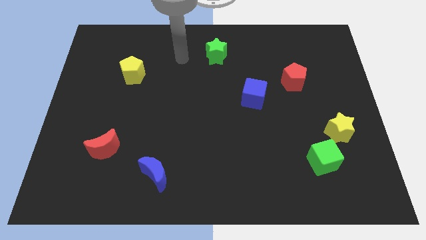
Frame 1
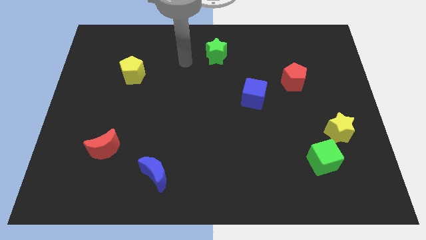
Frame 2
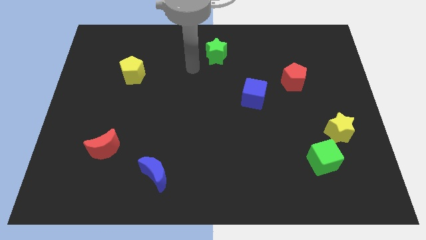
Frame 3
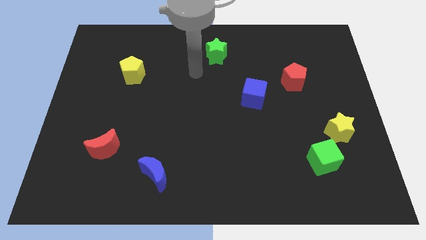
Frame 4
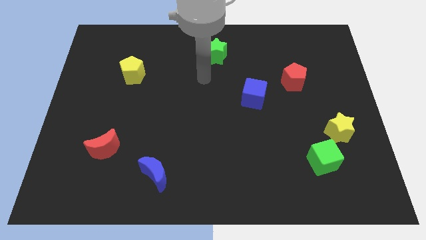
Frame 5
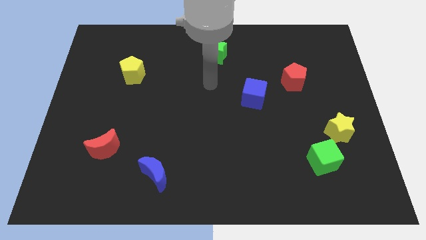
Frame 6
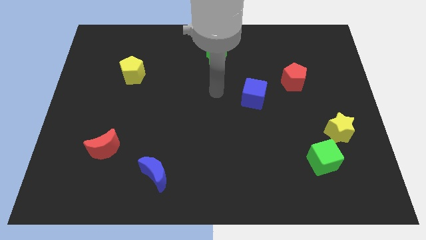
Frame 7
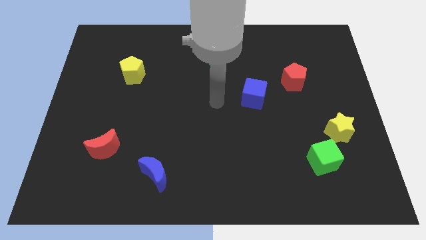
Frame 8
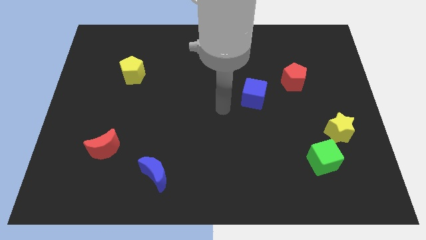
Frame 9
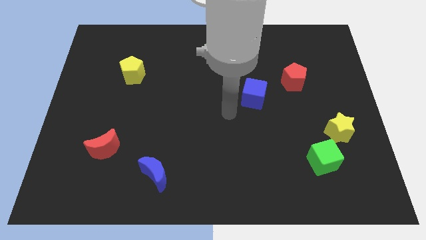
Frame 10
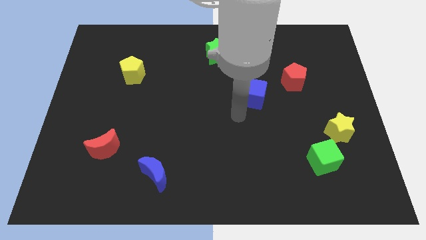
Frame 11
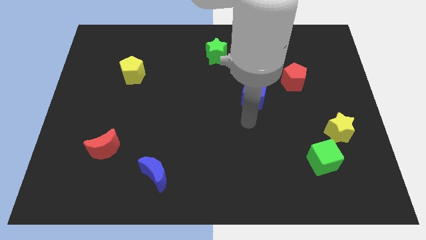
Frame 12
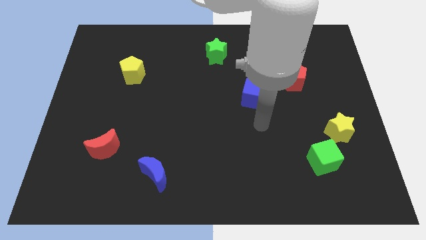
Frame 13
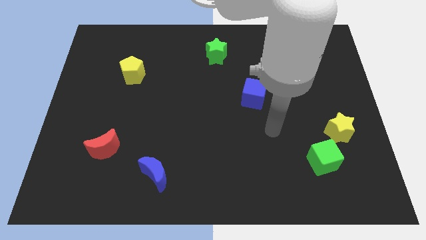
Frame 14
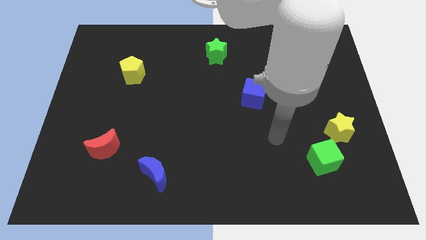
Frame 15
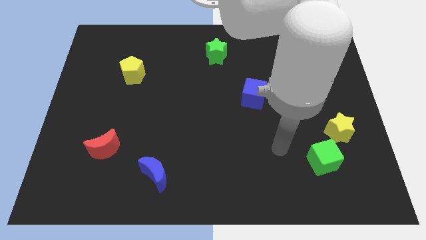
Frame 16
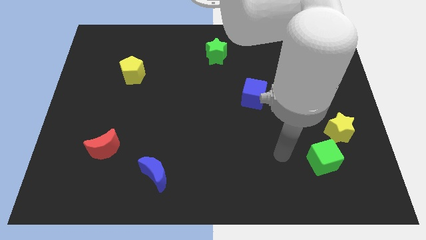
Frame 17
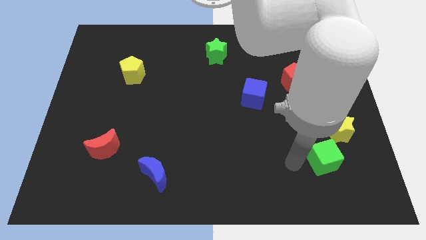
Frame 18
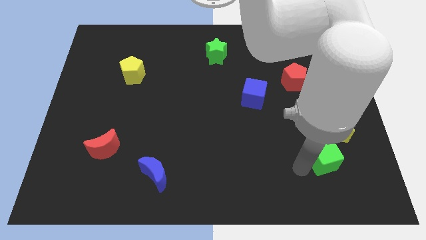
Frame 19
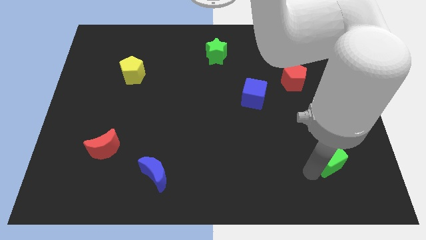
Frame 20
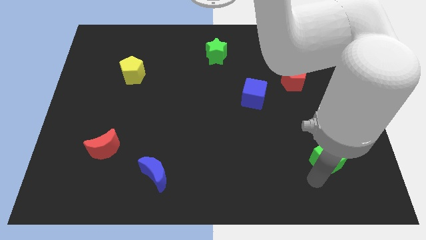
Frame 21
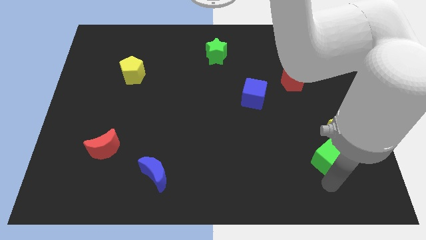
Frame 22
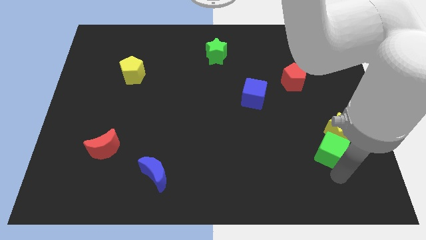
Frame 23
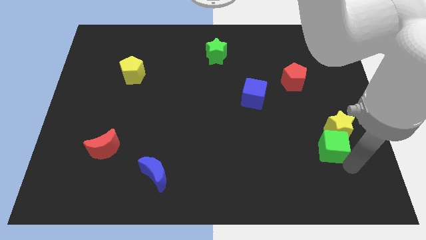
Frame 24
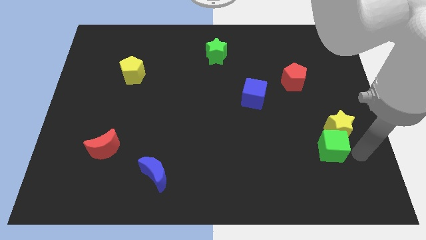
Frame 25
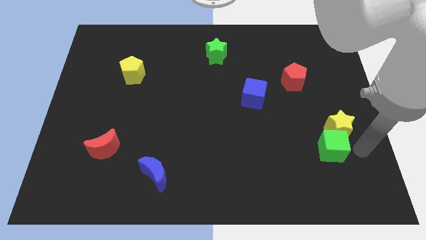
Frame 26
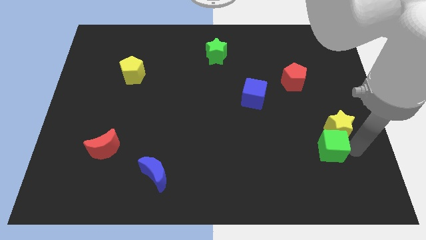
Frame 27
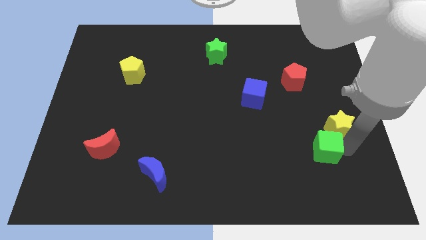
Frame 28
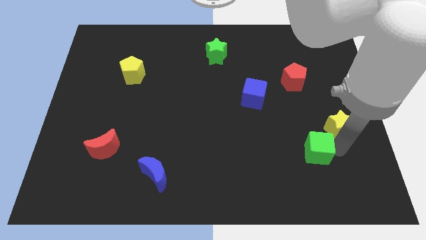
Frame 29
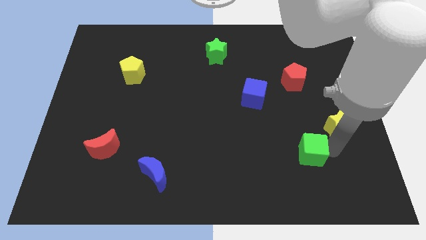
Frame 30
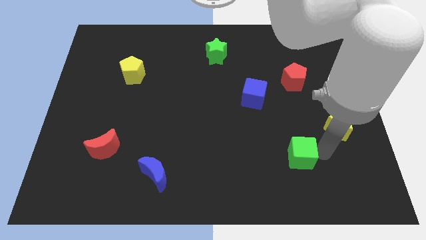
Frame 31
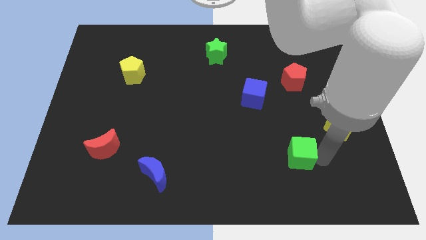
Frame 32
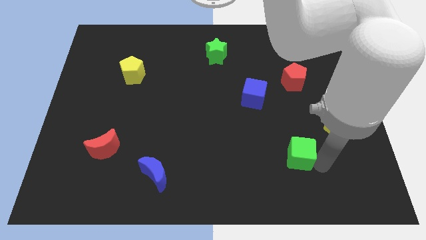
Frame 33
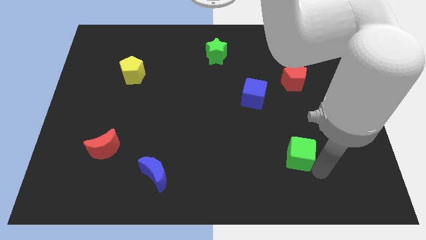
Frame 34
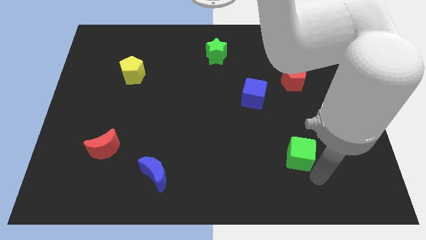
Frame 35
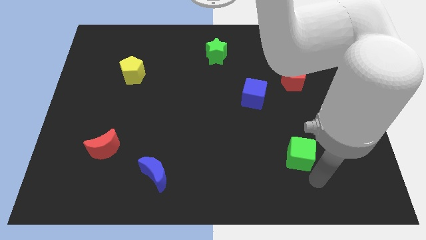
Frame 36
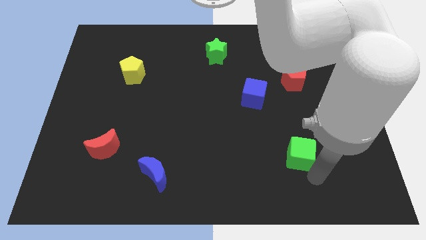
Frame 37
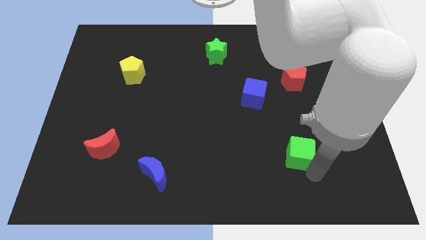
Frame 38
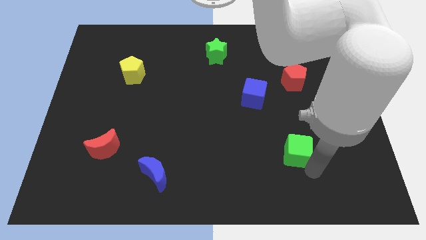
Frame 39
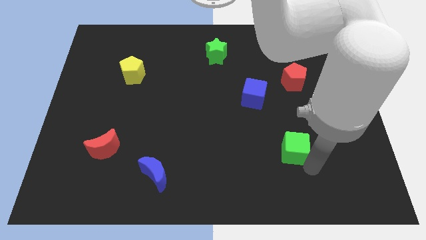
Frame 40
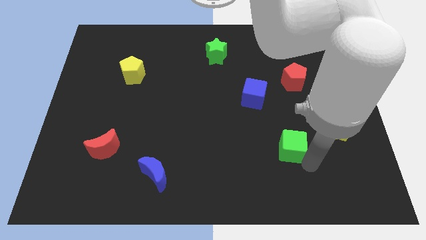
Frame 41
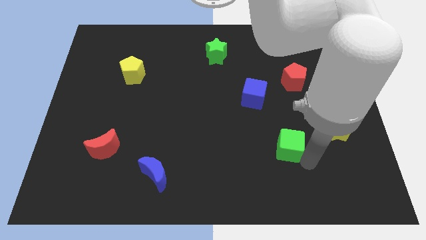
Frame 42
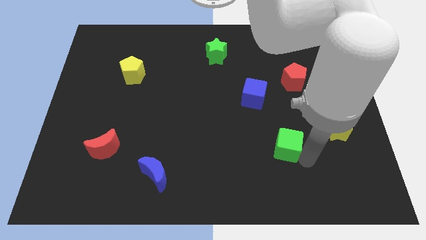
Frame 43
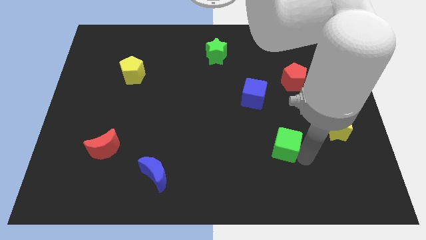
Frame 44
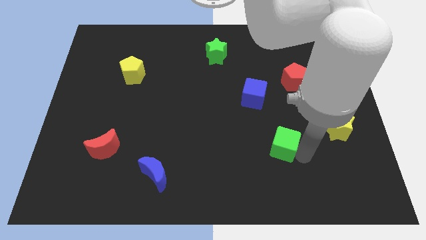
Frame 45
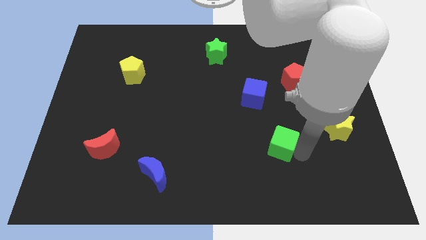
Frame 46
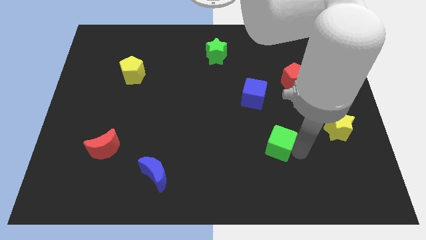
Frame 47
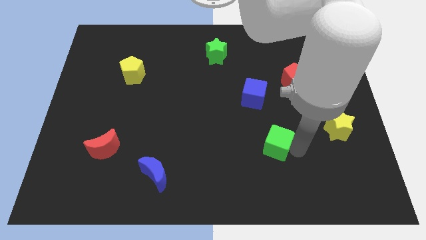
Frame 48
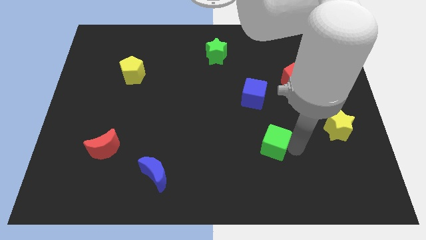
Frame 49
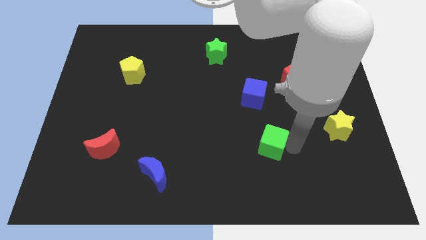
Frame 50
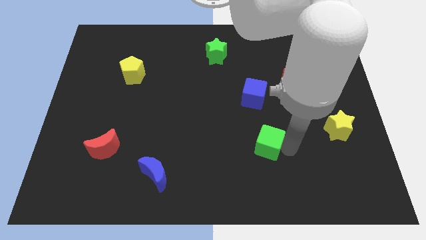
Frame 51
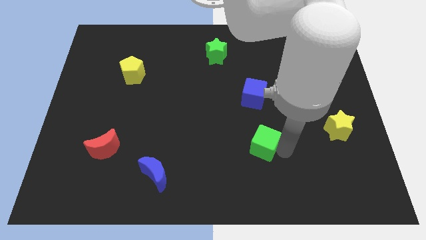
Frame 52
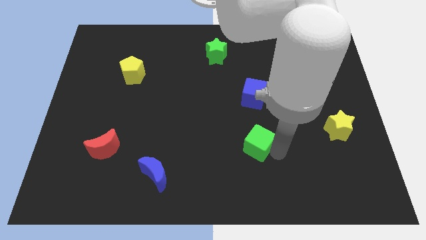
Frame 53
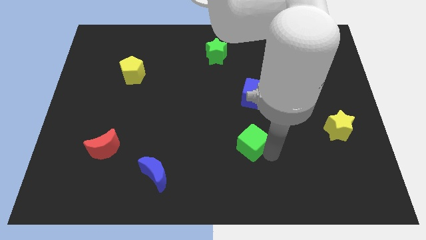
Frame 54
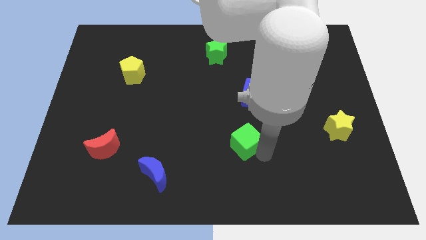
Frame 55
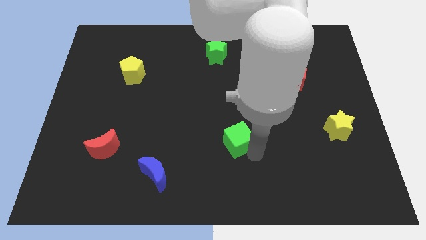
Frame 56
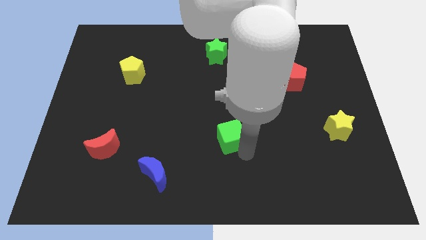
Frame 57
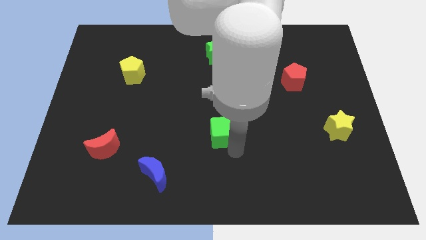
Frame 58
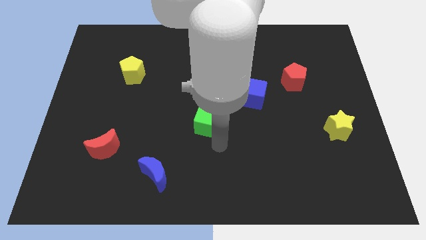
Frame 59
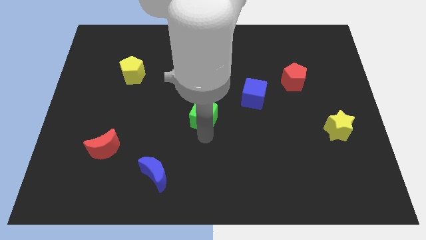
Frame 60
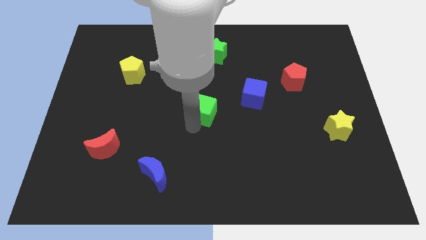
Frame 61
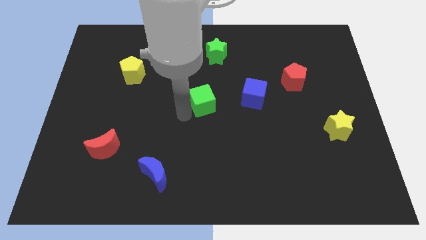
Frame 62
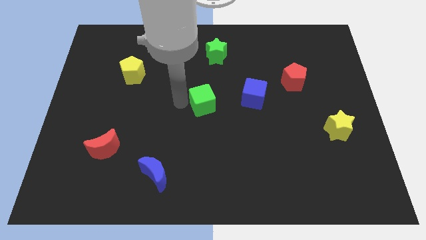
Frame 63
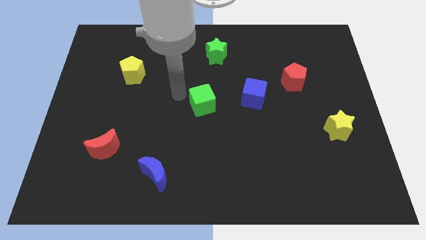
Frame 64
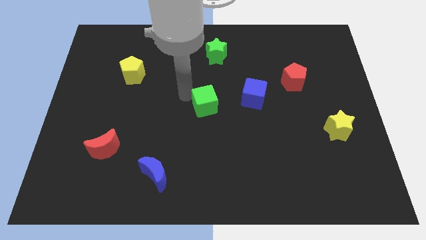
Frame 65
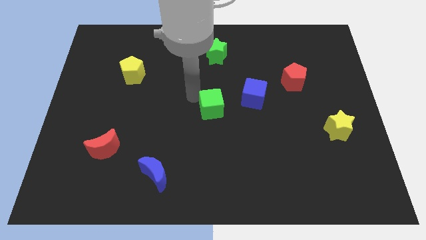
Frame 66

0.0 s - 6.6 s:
slide the green cube to the bottom left of the blue cube

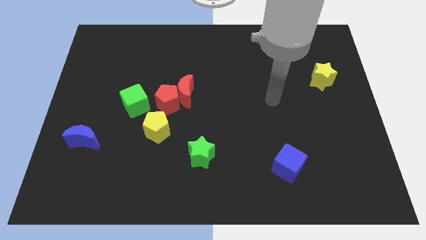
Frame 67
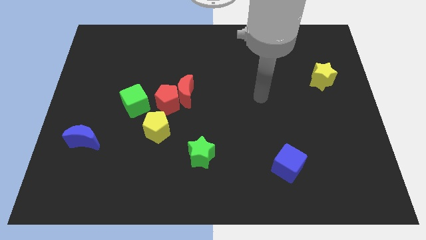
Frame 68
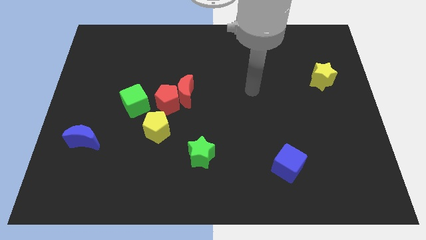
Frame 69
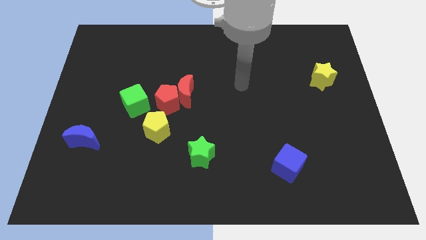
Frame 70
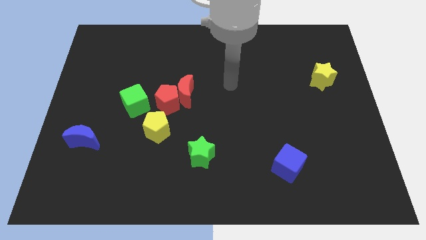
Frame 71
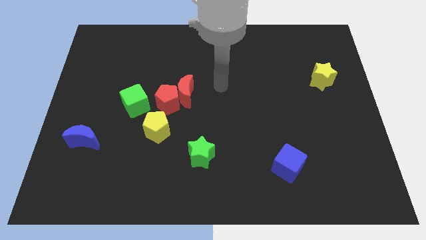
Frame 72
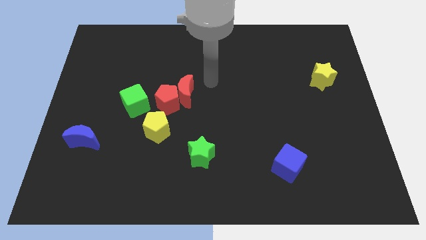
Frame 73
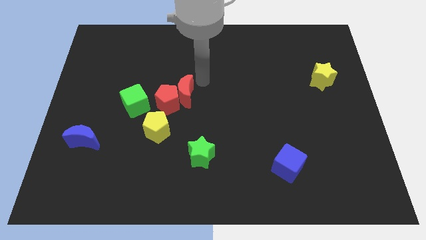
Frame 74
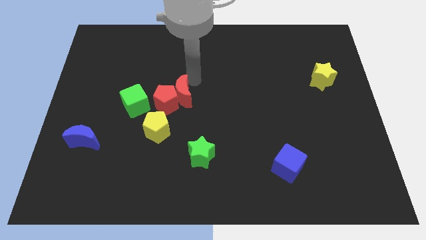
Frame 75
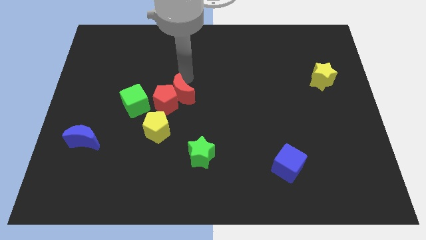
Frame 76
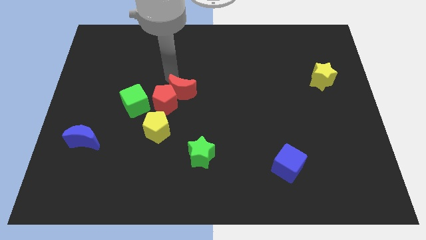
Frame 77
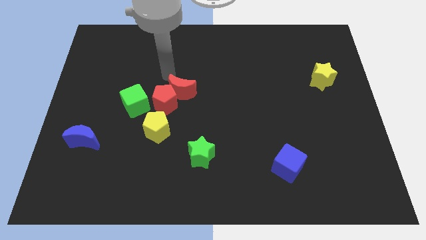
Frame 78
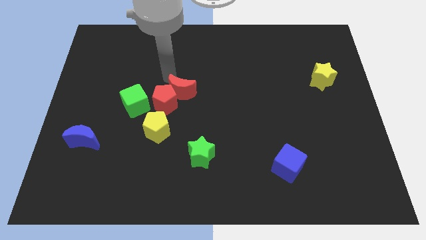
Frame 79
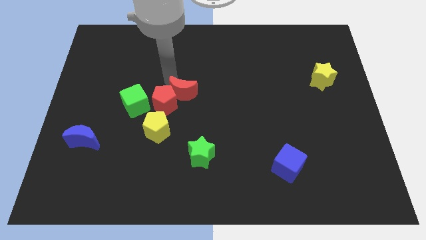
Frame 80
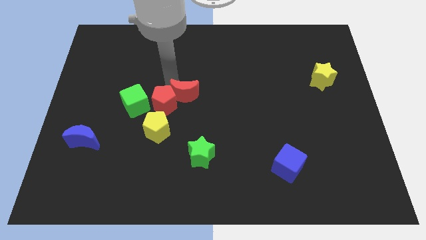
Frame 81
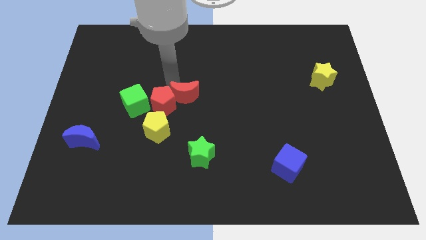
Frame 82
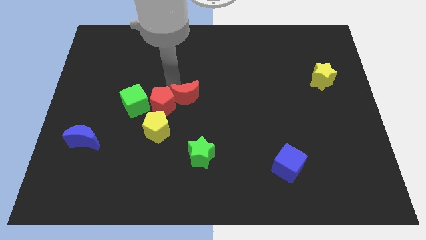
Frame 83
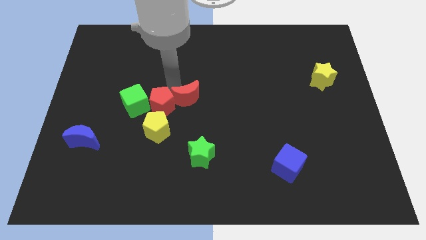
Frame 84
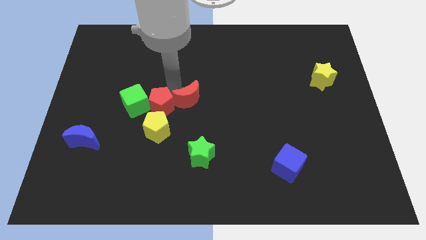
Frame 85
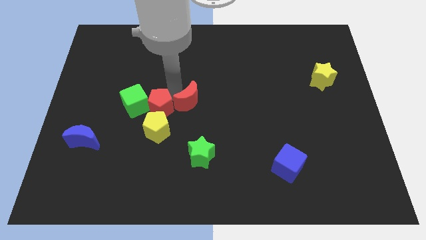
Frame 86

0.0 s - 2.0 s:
push the red moon to the top side of the green star
